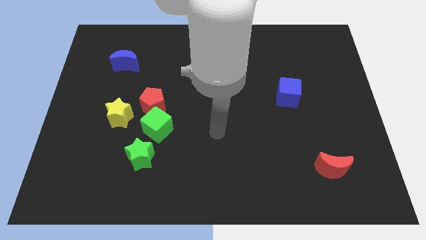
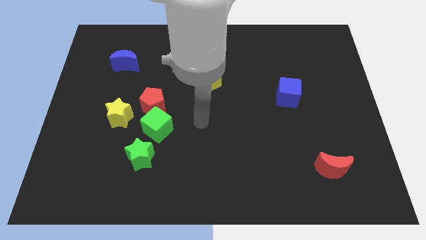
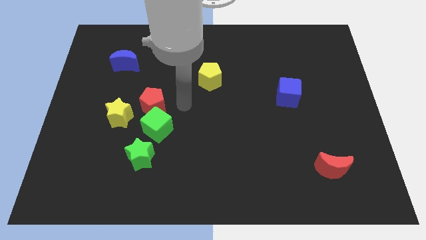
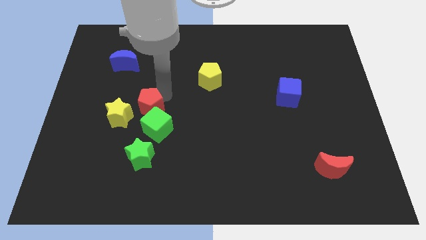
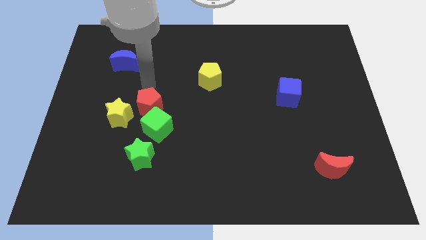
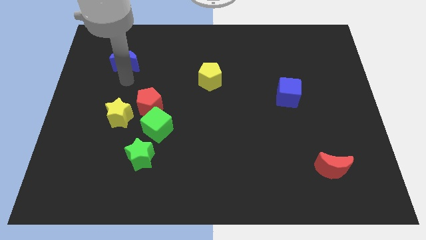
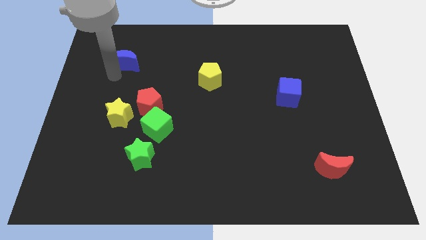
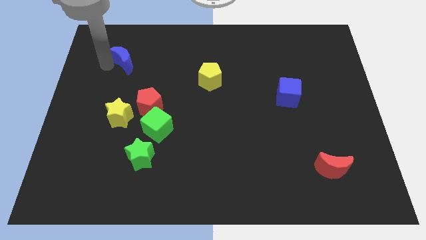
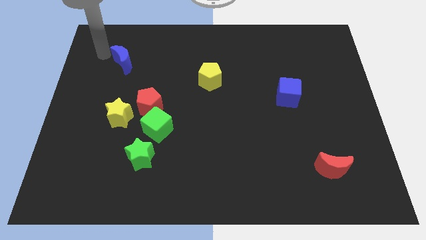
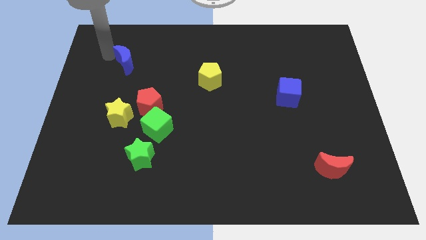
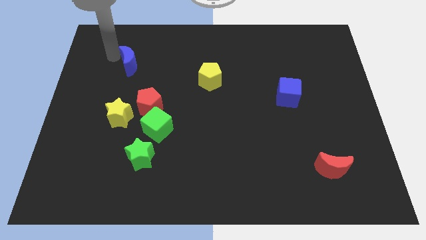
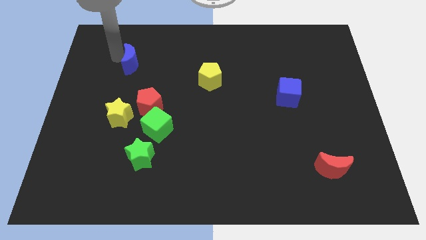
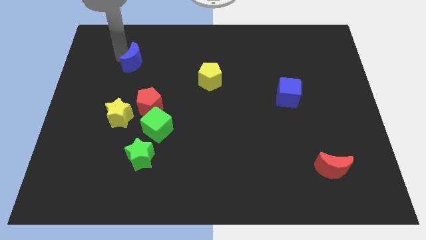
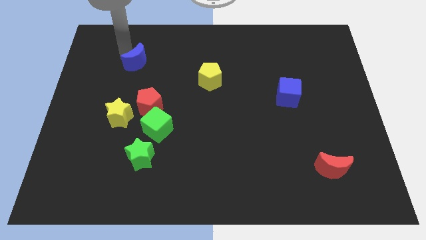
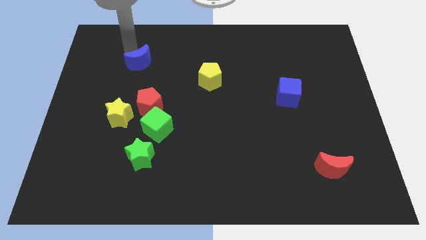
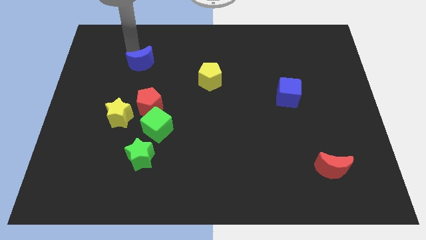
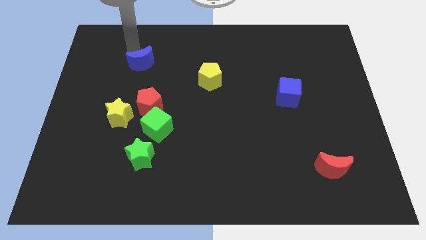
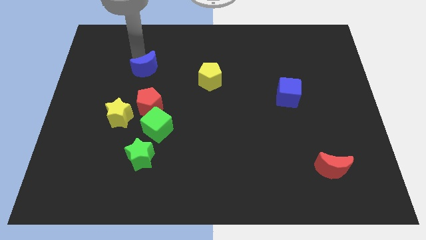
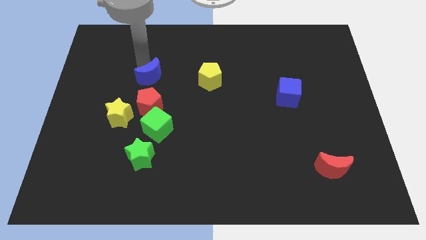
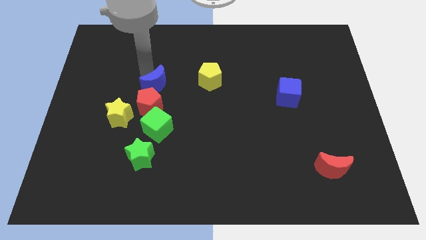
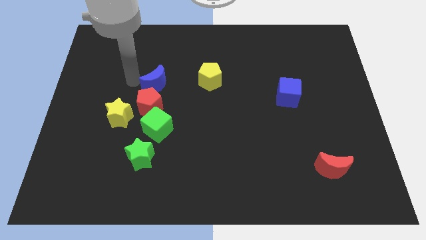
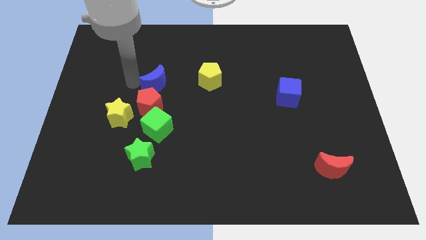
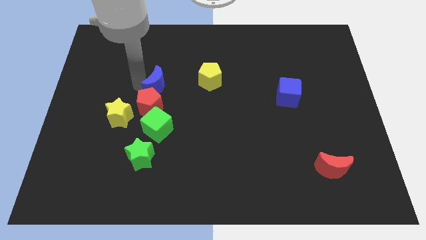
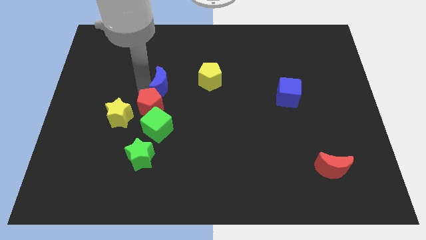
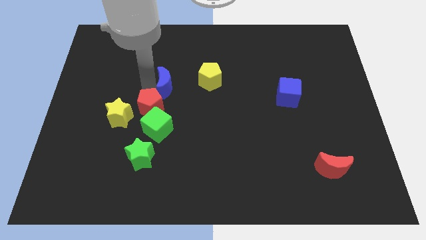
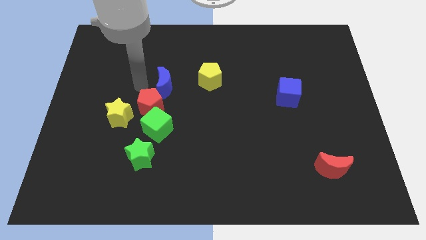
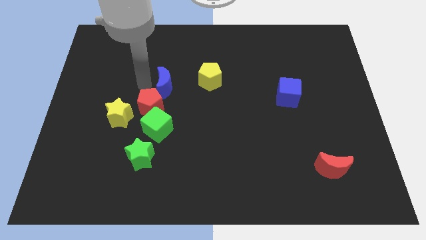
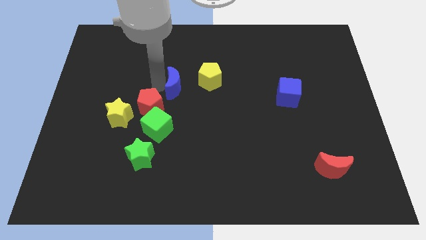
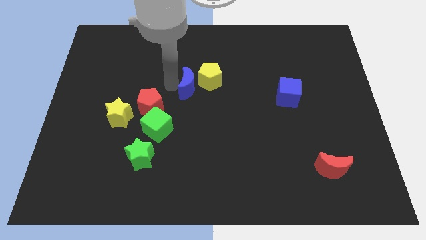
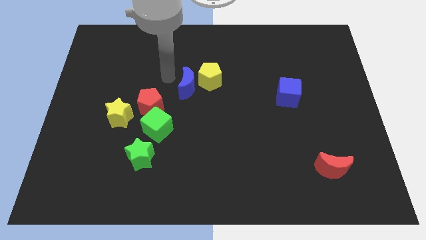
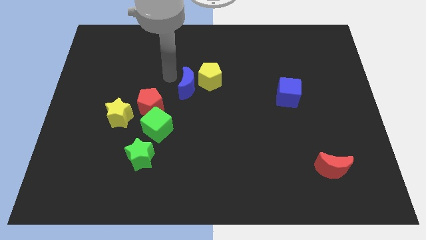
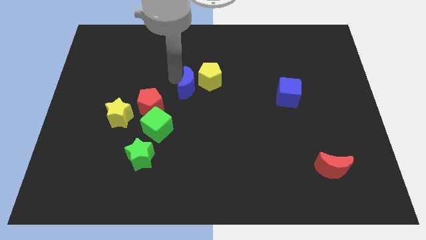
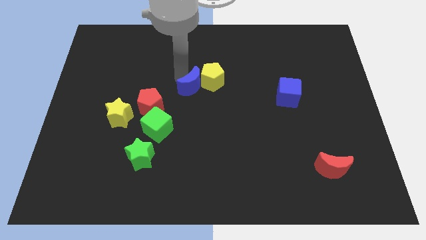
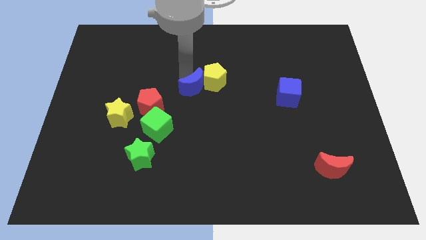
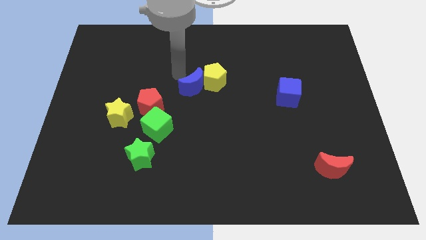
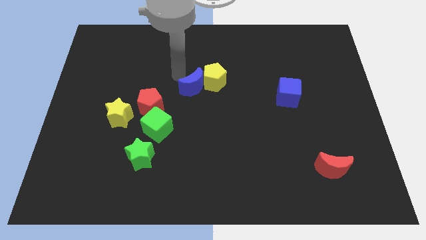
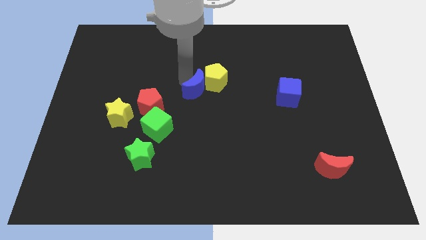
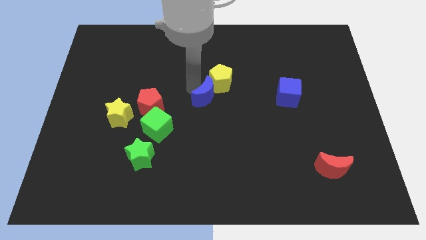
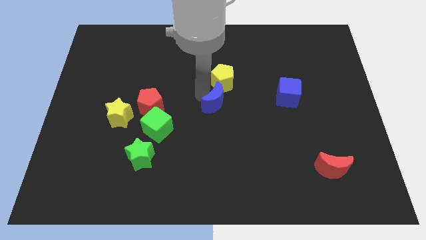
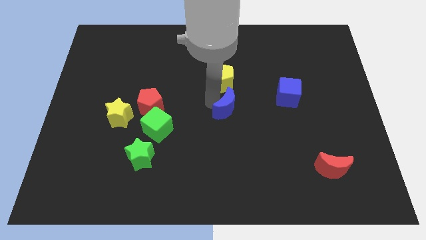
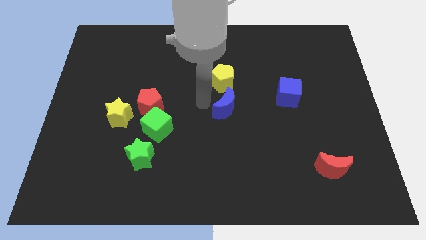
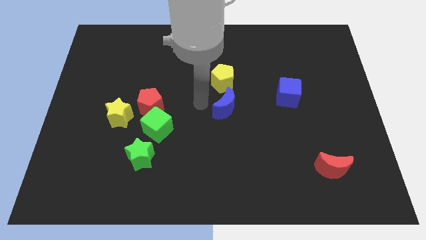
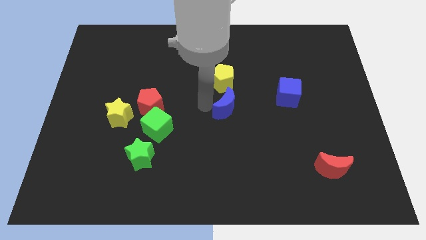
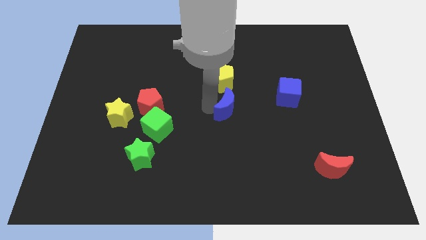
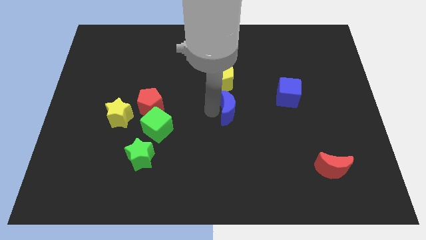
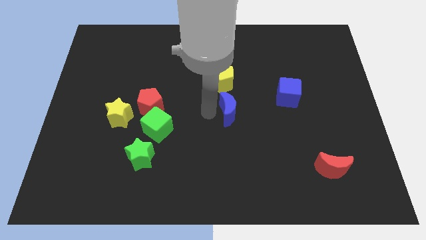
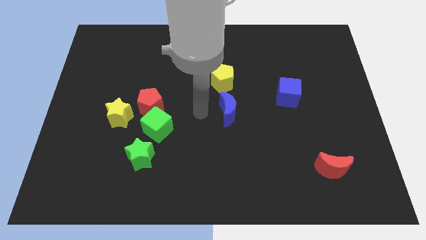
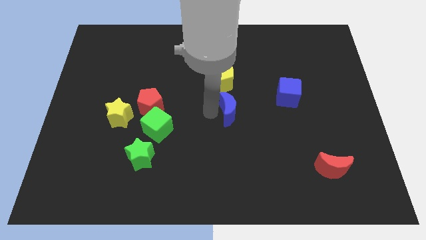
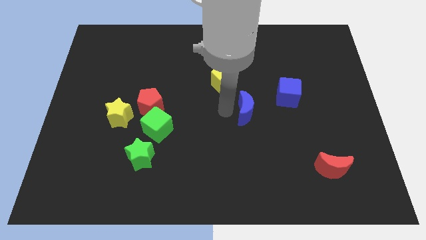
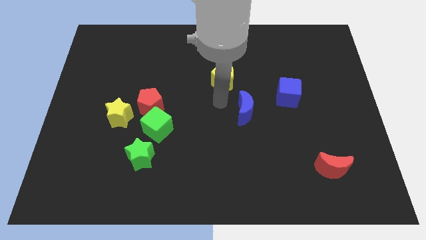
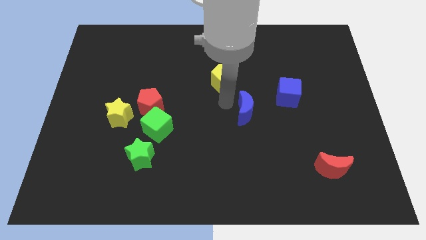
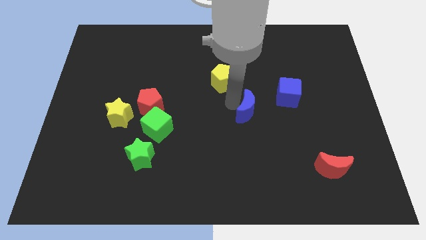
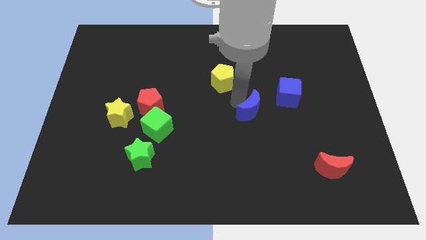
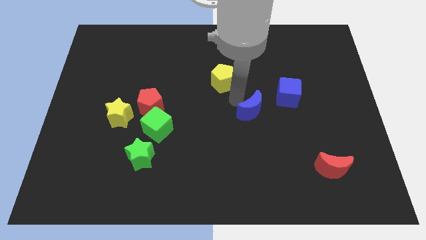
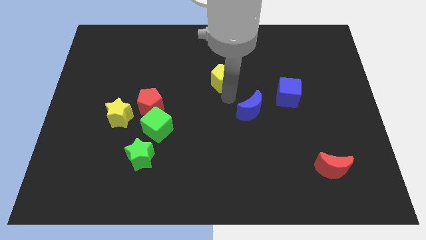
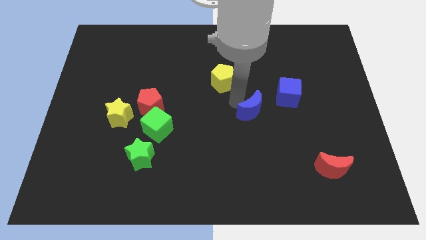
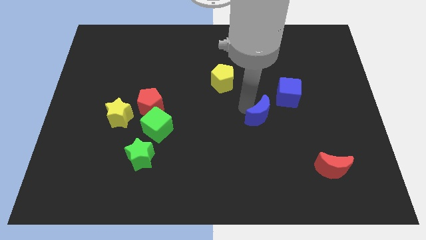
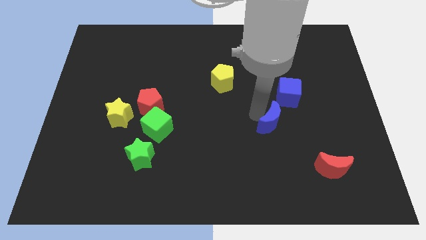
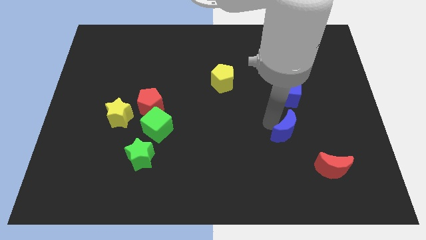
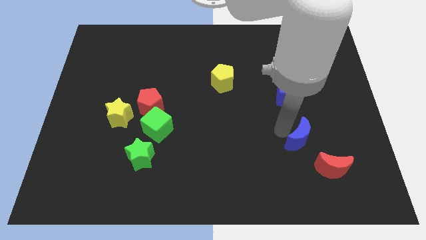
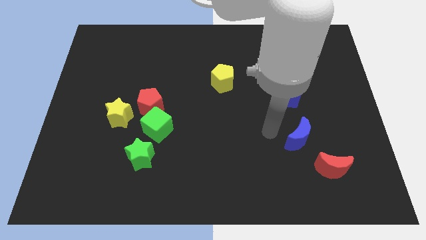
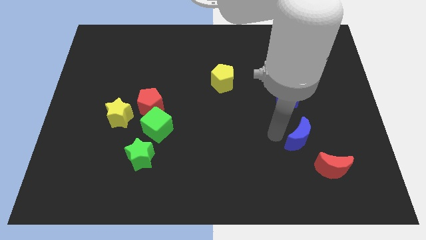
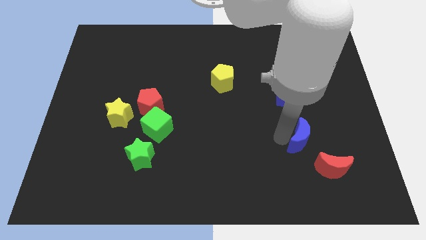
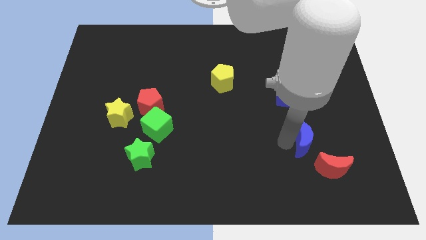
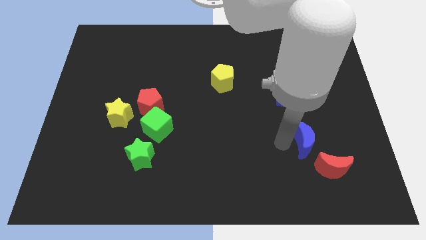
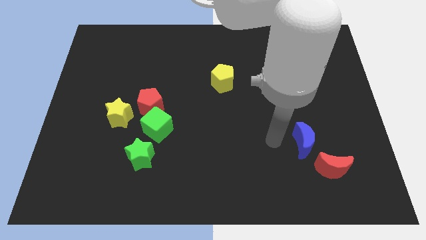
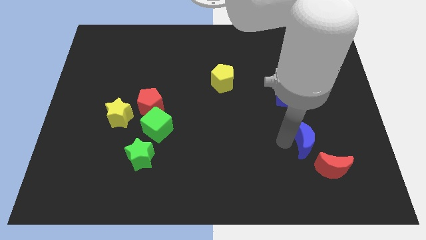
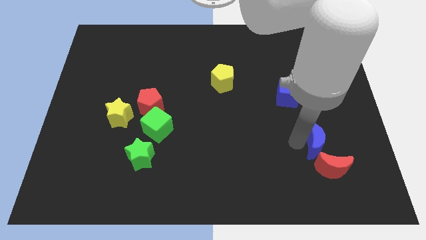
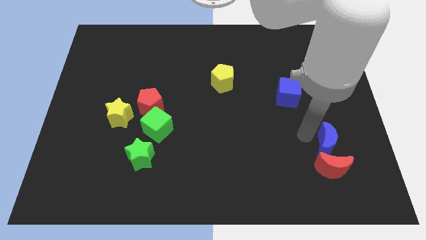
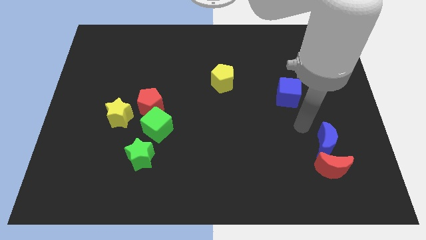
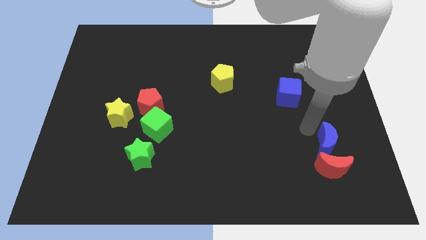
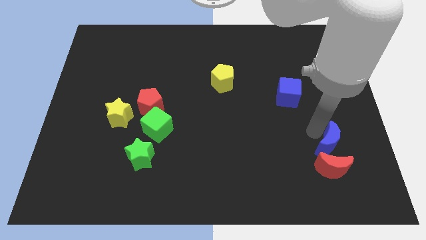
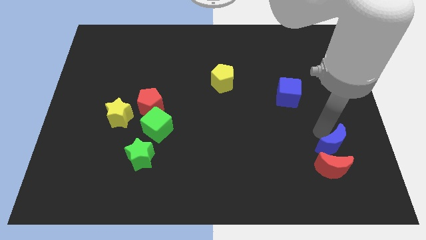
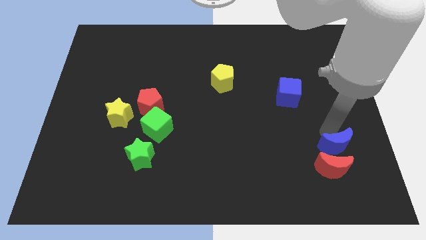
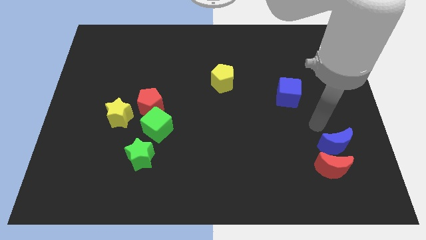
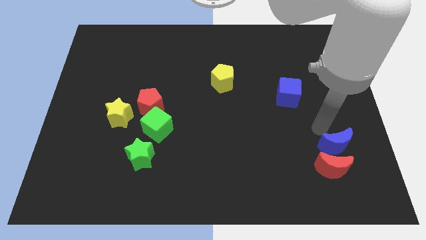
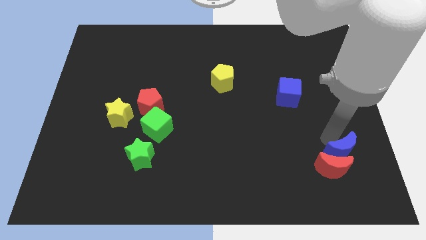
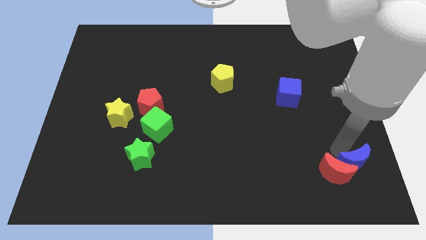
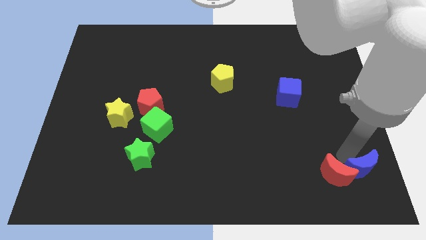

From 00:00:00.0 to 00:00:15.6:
put the blue moon to the bottom right corner
